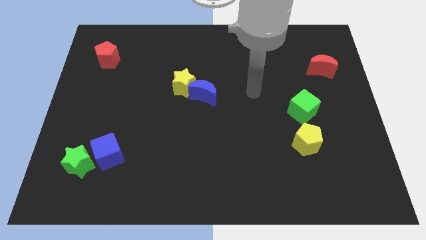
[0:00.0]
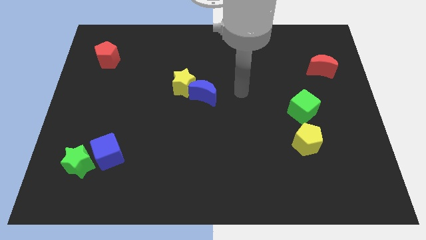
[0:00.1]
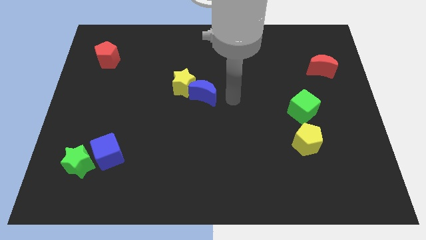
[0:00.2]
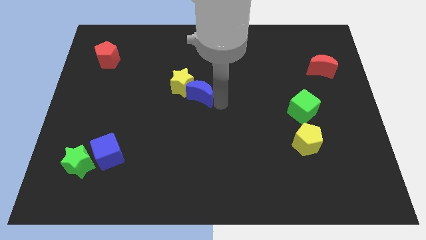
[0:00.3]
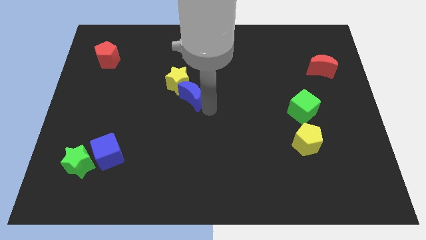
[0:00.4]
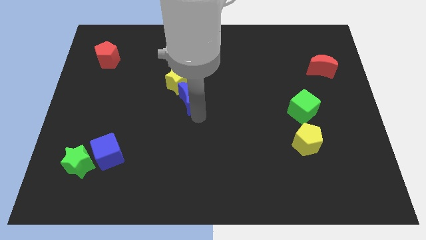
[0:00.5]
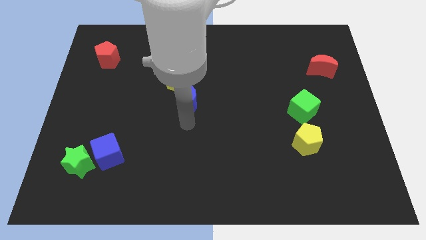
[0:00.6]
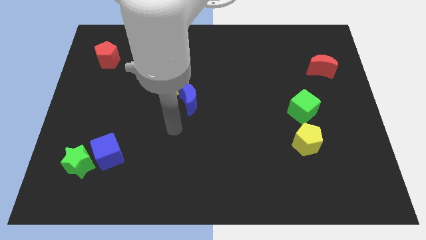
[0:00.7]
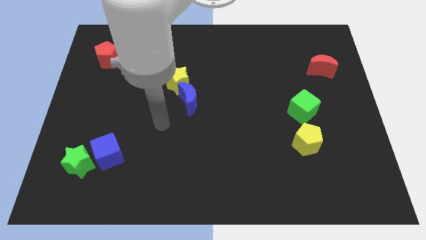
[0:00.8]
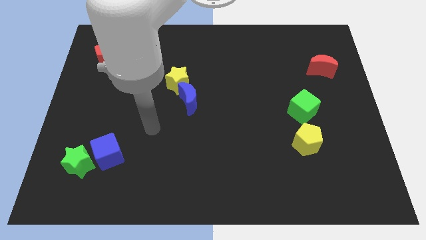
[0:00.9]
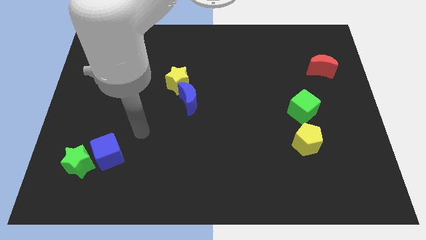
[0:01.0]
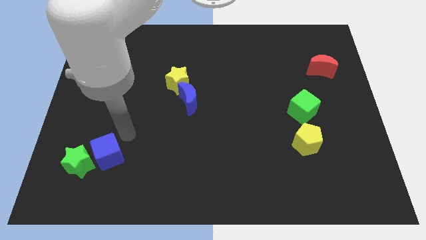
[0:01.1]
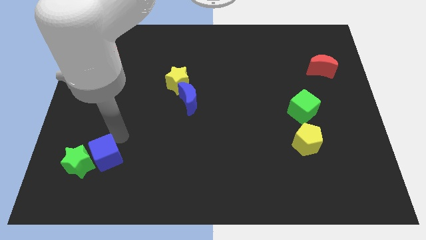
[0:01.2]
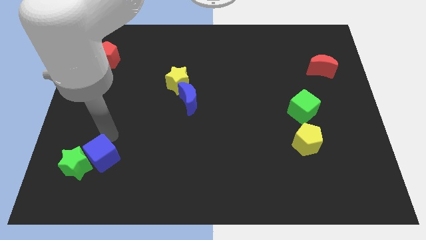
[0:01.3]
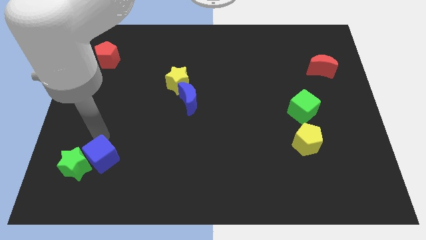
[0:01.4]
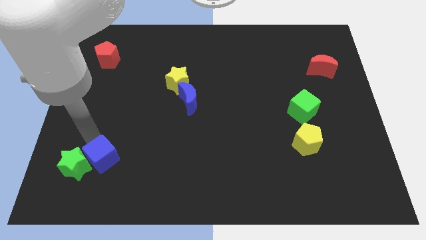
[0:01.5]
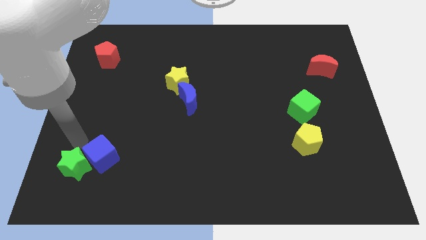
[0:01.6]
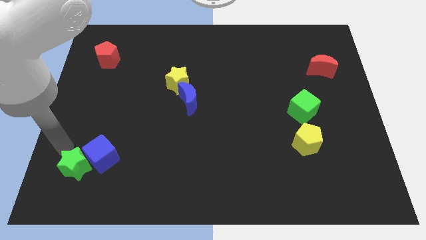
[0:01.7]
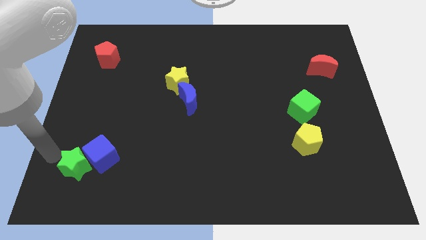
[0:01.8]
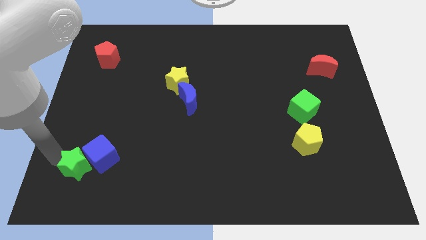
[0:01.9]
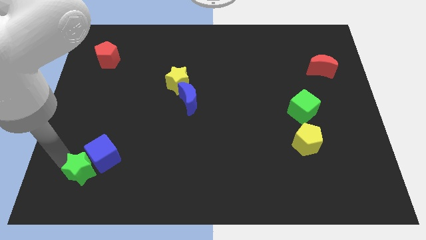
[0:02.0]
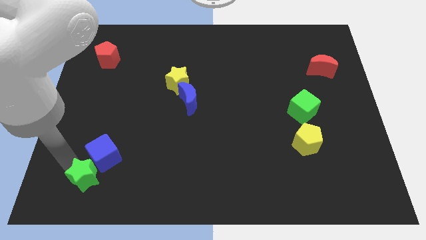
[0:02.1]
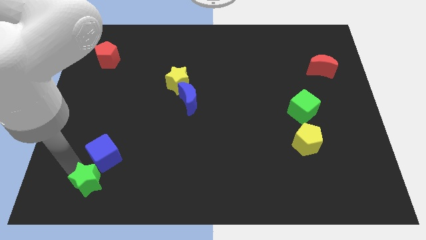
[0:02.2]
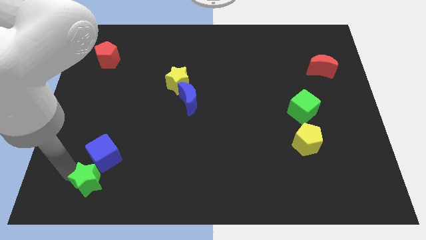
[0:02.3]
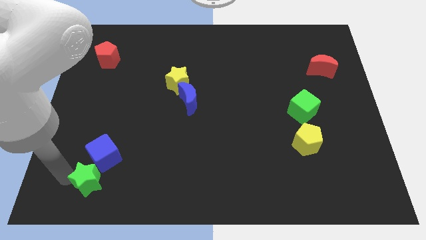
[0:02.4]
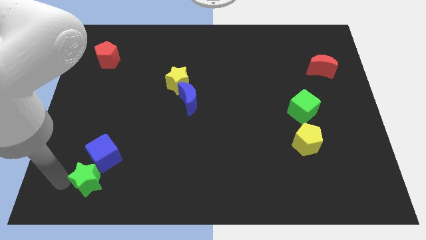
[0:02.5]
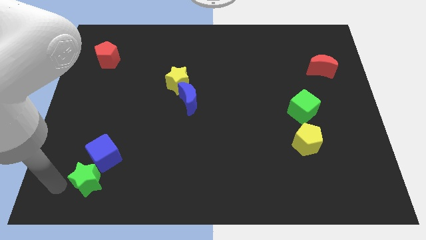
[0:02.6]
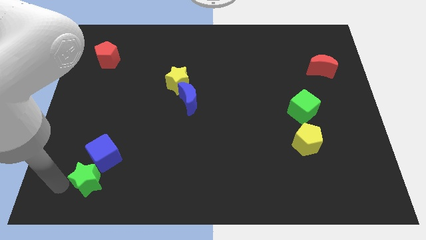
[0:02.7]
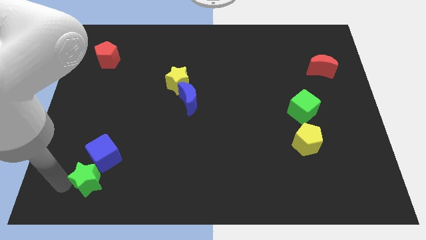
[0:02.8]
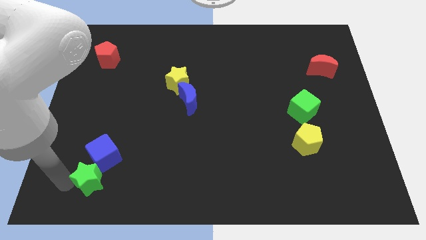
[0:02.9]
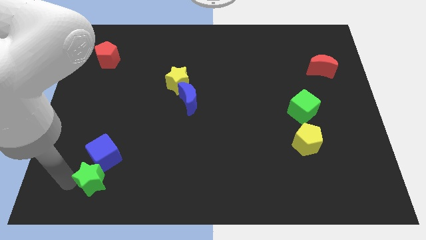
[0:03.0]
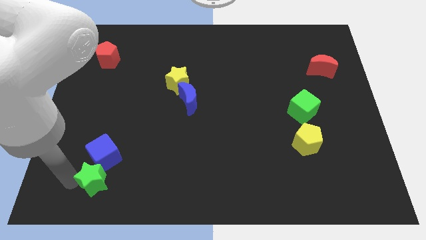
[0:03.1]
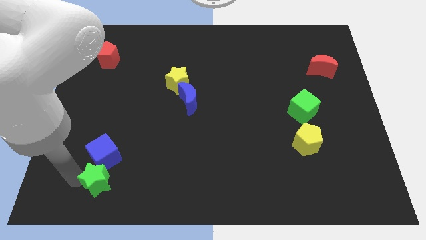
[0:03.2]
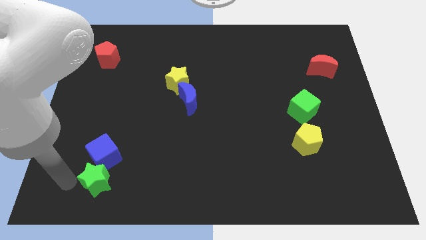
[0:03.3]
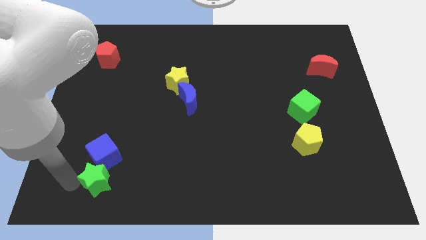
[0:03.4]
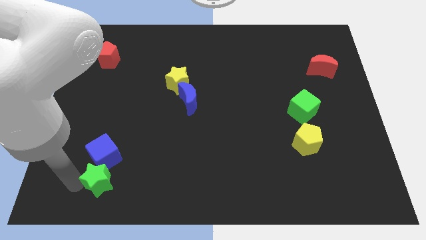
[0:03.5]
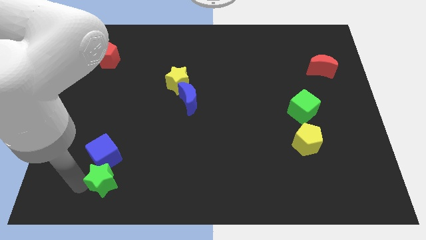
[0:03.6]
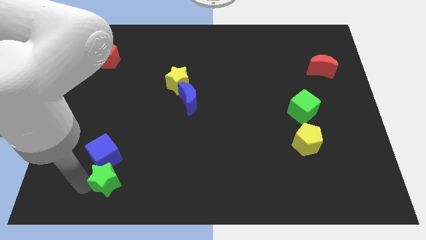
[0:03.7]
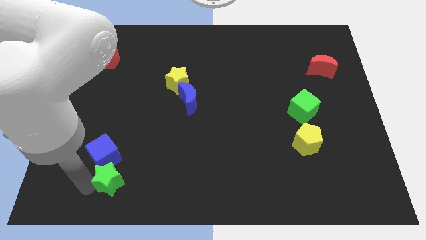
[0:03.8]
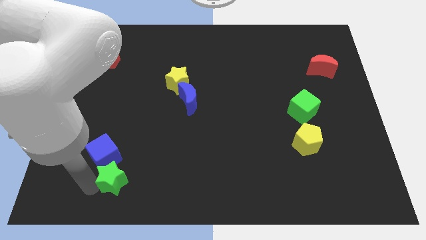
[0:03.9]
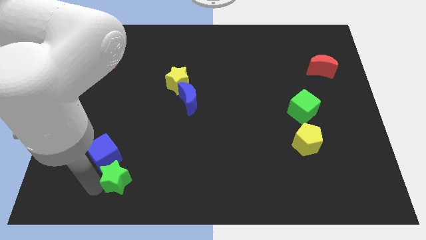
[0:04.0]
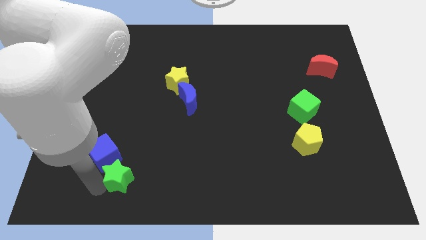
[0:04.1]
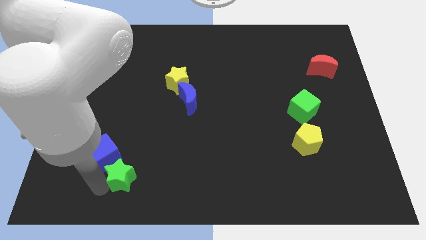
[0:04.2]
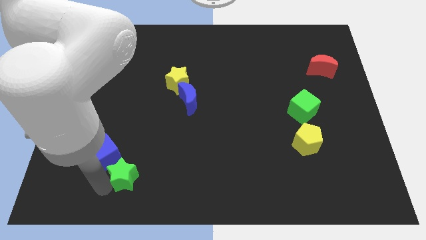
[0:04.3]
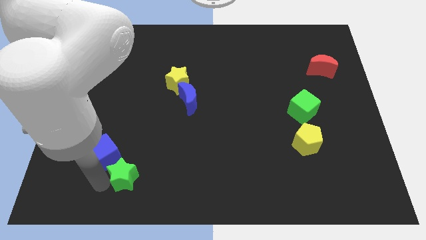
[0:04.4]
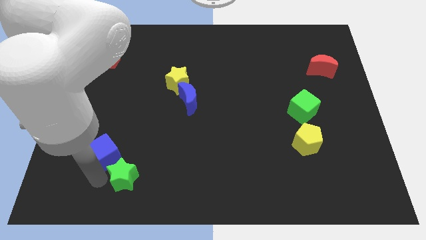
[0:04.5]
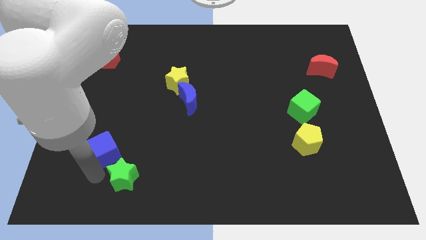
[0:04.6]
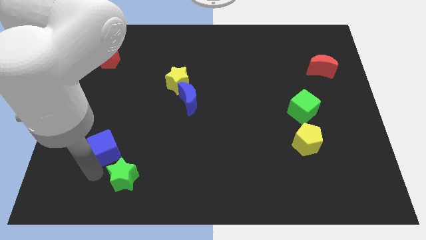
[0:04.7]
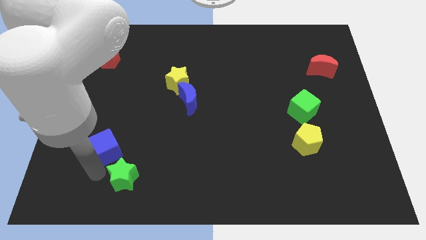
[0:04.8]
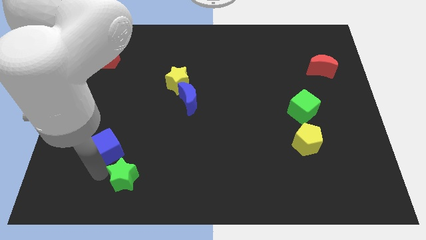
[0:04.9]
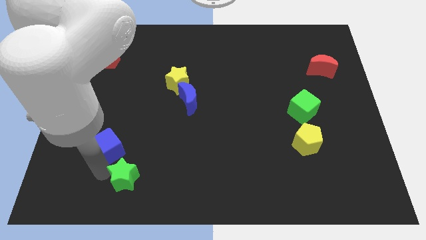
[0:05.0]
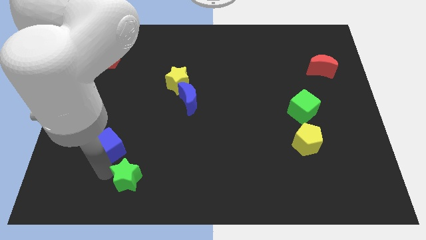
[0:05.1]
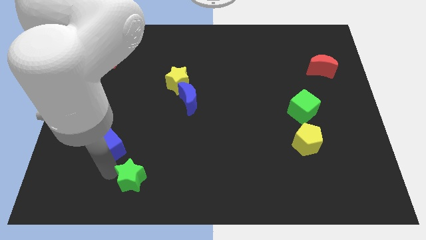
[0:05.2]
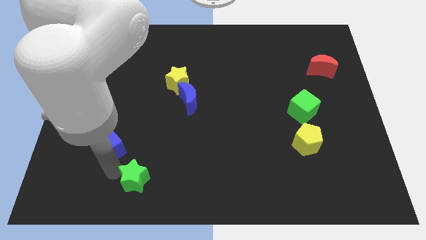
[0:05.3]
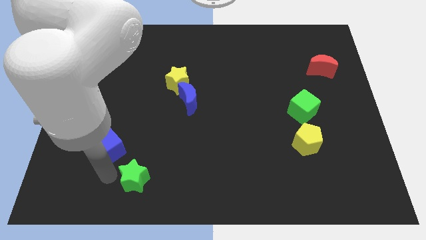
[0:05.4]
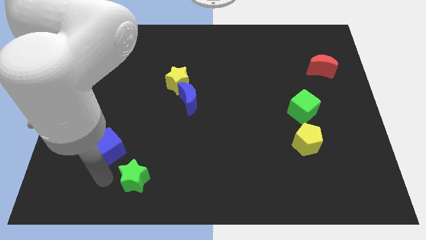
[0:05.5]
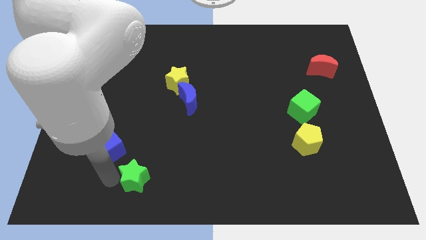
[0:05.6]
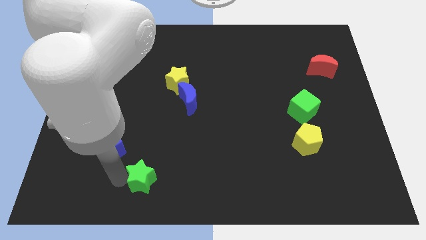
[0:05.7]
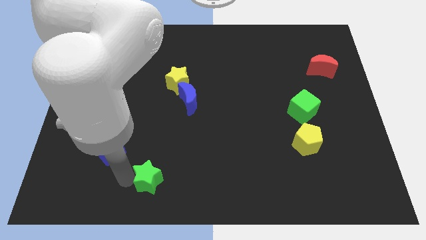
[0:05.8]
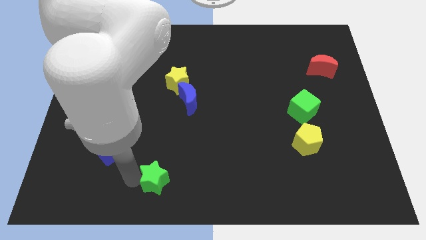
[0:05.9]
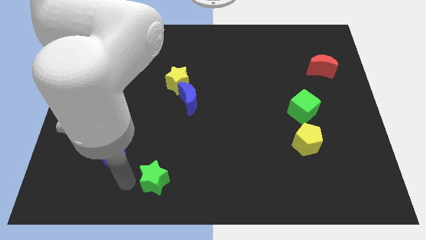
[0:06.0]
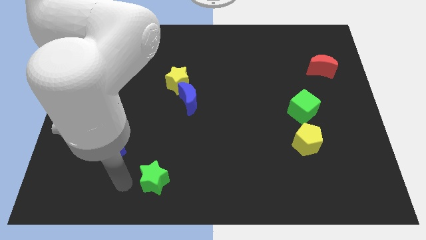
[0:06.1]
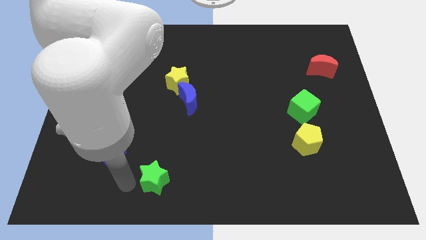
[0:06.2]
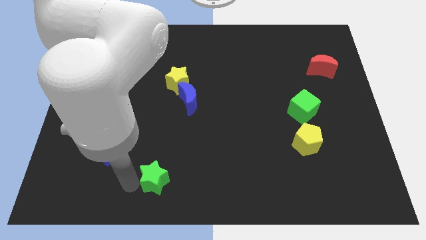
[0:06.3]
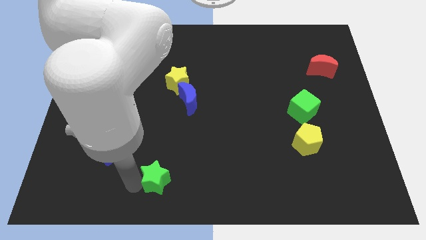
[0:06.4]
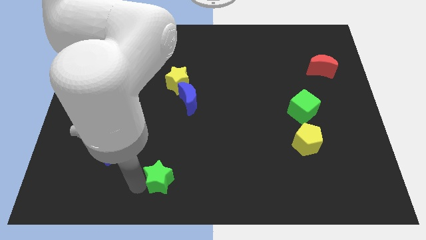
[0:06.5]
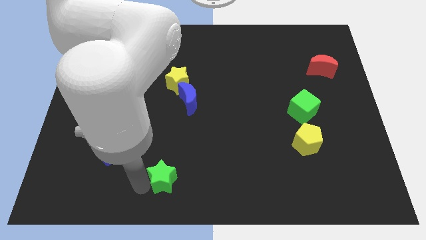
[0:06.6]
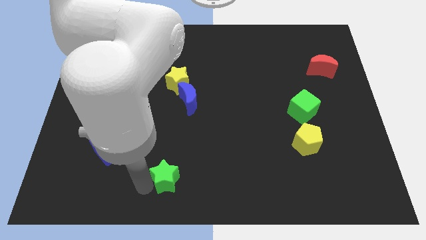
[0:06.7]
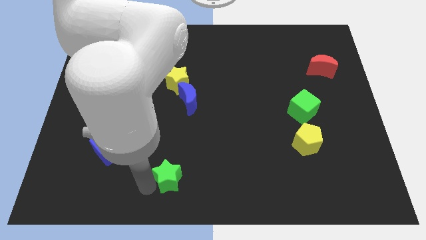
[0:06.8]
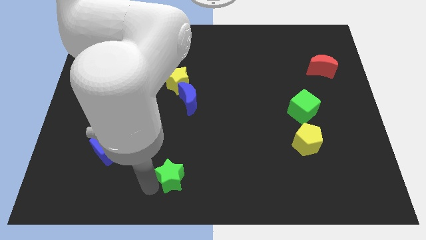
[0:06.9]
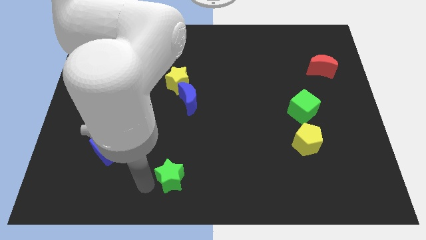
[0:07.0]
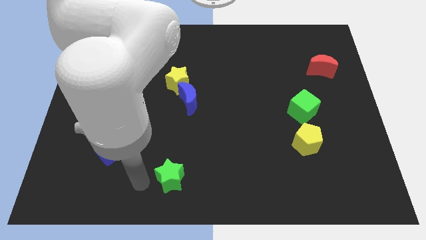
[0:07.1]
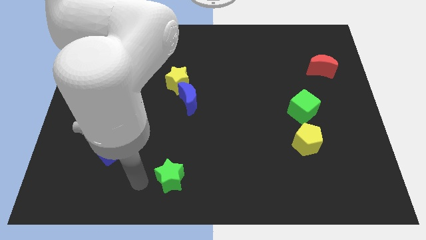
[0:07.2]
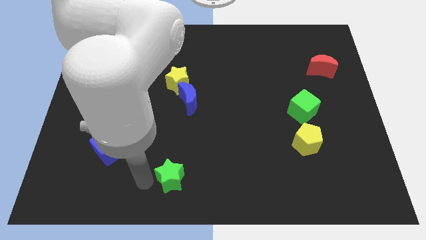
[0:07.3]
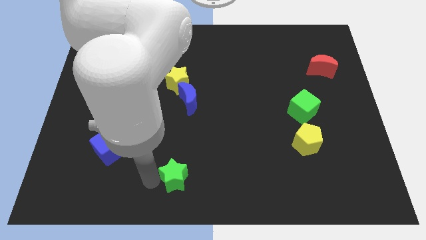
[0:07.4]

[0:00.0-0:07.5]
slide the green star to the right

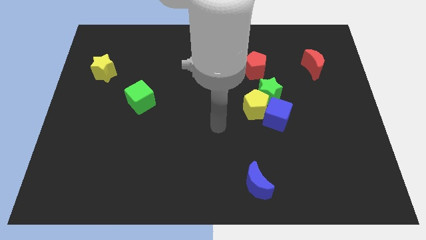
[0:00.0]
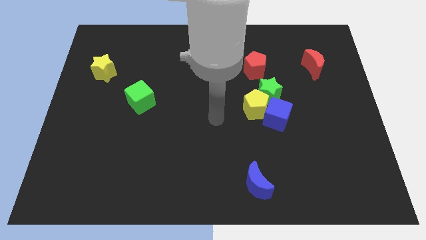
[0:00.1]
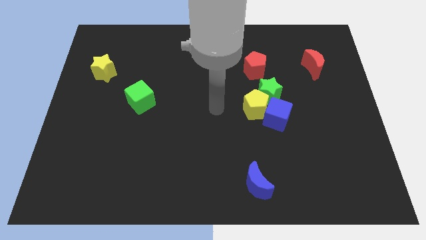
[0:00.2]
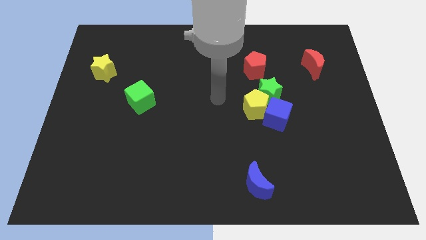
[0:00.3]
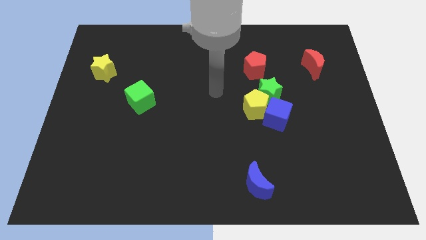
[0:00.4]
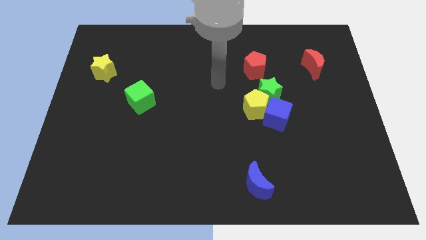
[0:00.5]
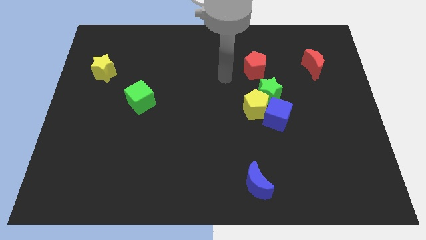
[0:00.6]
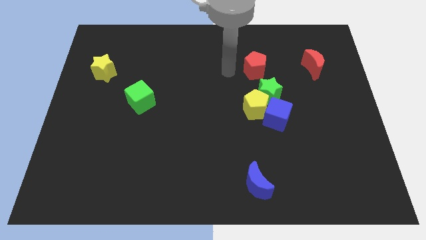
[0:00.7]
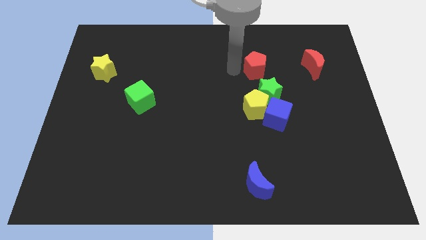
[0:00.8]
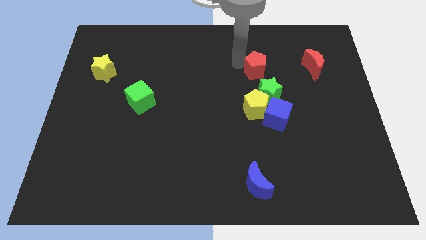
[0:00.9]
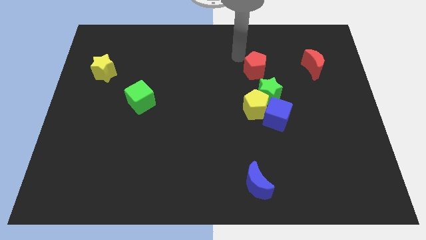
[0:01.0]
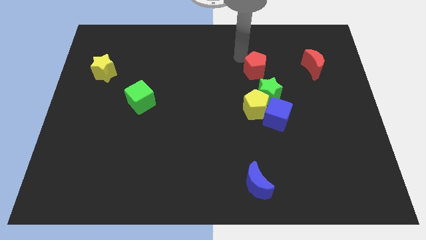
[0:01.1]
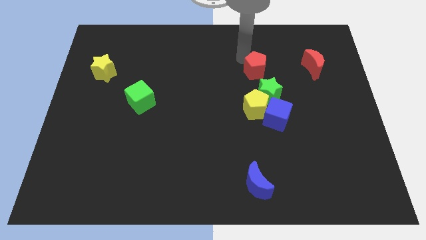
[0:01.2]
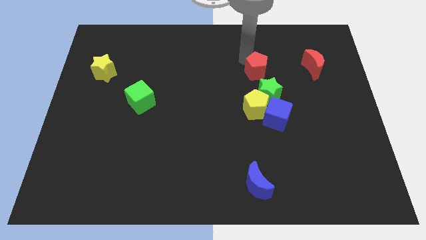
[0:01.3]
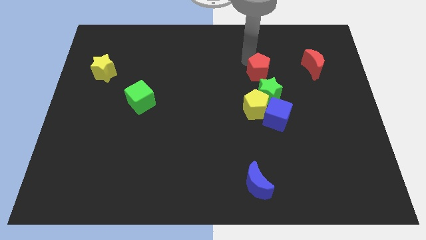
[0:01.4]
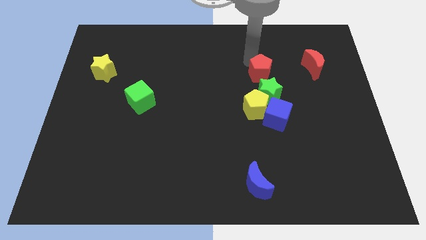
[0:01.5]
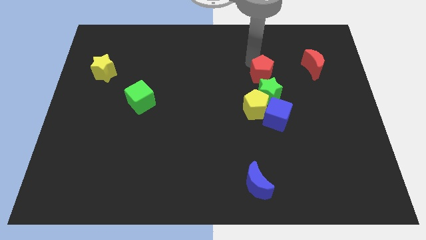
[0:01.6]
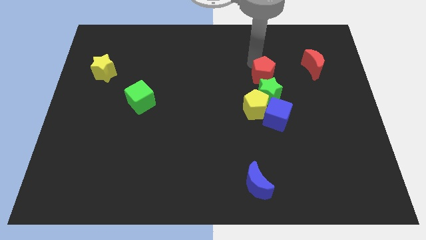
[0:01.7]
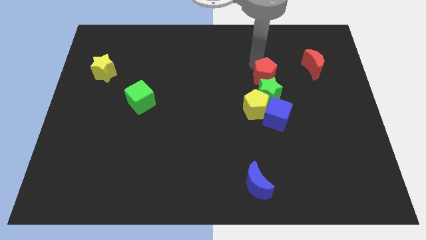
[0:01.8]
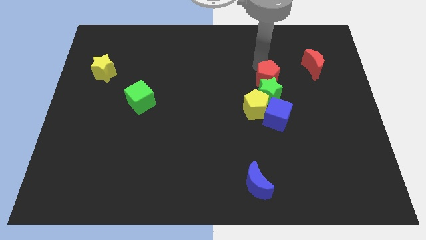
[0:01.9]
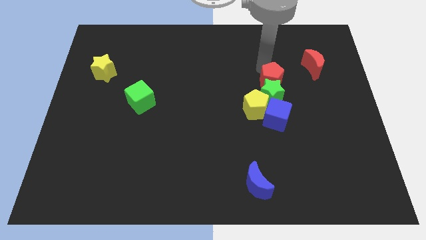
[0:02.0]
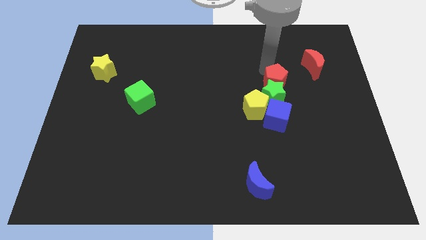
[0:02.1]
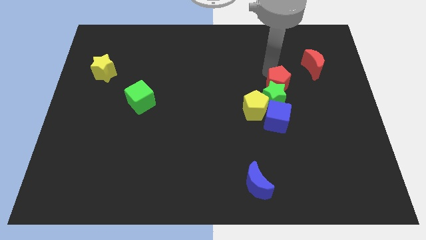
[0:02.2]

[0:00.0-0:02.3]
move the red pentagon down and right a little bit
